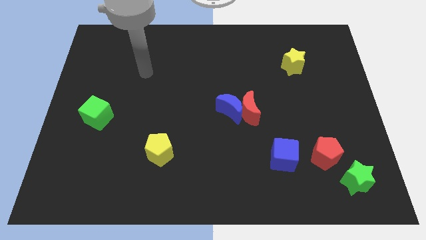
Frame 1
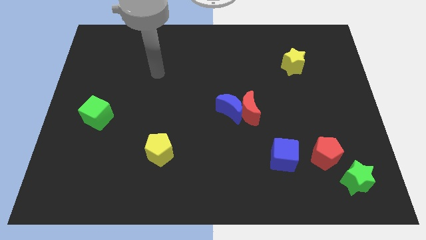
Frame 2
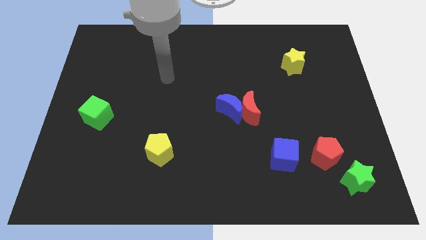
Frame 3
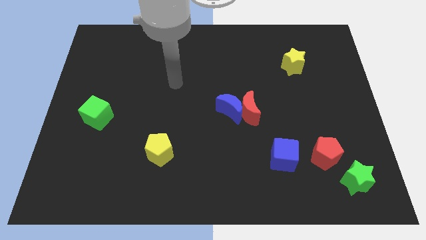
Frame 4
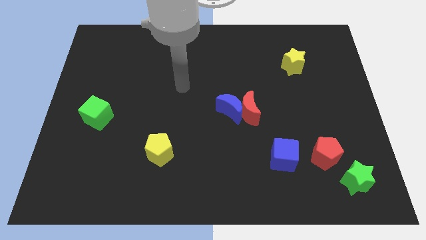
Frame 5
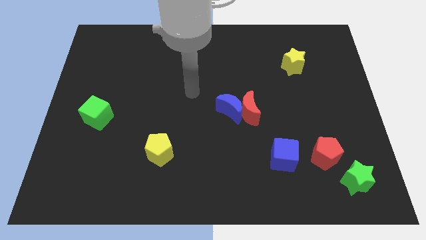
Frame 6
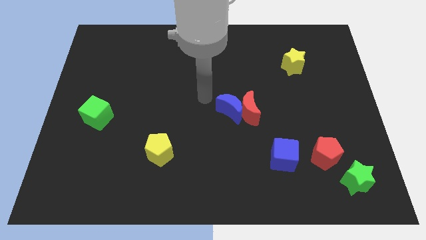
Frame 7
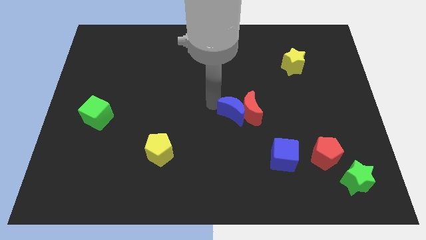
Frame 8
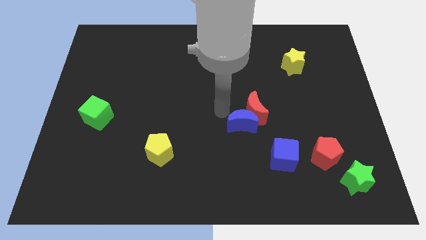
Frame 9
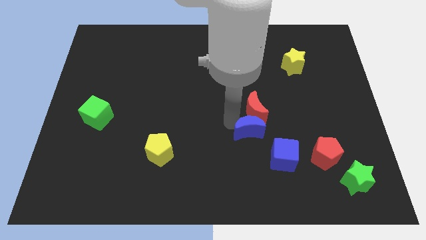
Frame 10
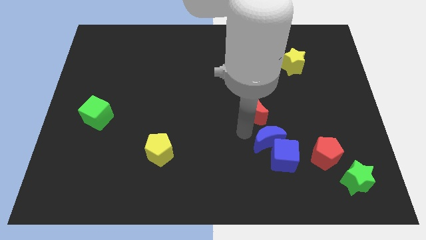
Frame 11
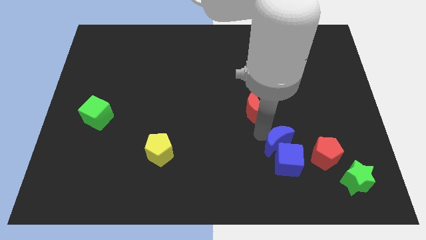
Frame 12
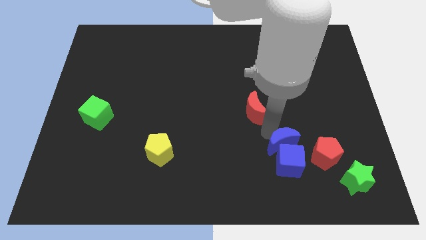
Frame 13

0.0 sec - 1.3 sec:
pull the red moon apart from the blue moon

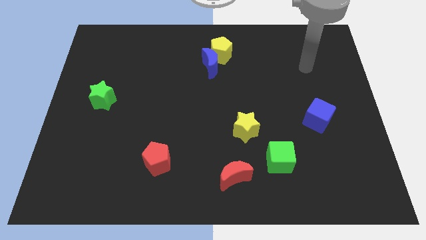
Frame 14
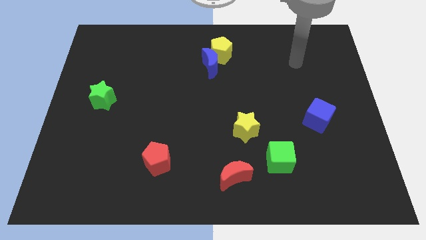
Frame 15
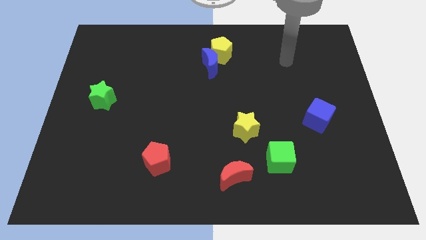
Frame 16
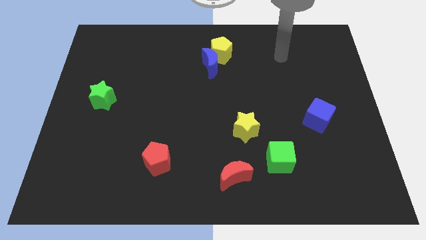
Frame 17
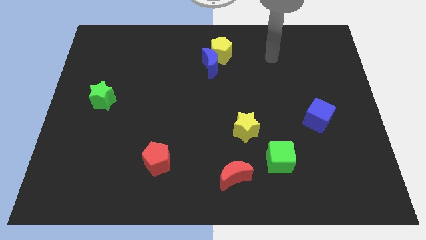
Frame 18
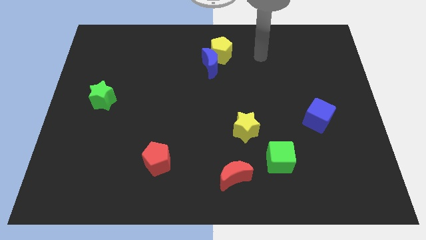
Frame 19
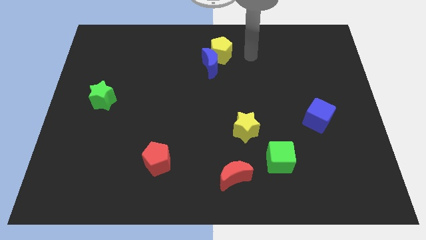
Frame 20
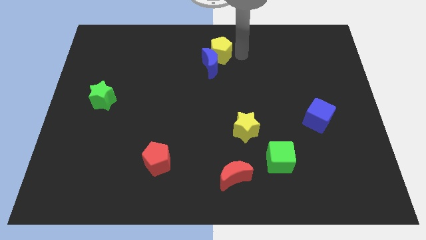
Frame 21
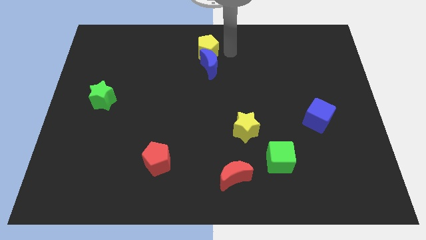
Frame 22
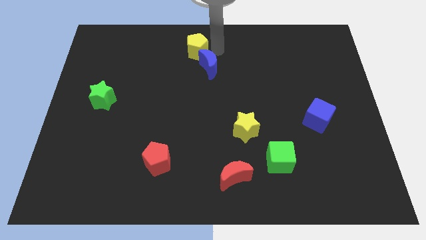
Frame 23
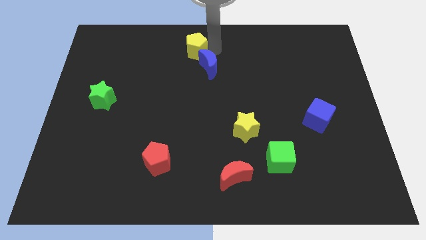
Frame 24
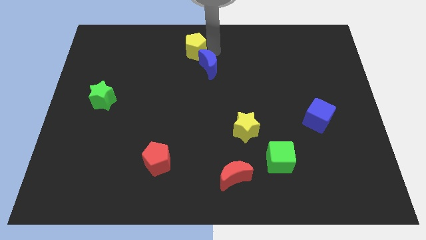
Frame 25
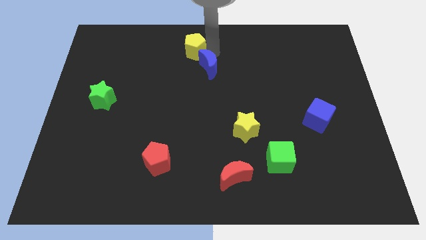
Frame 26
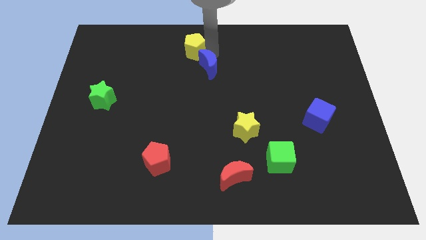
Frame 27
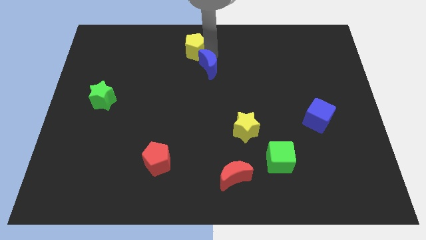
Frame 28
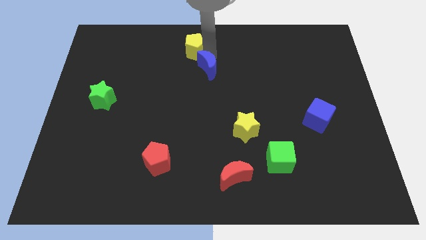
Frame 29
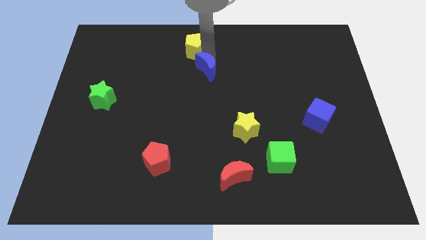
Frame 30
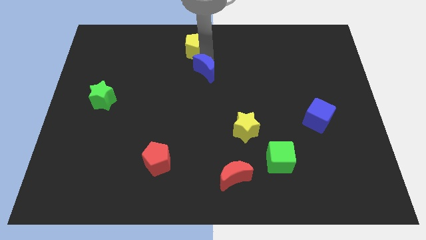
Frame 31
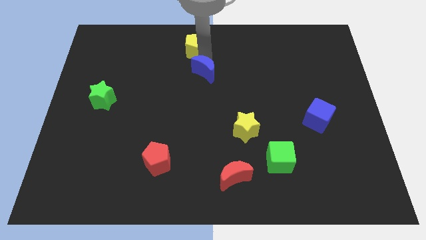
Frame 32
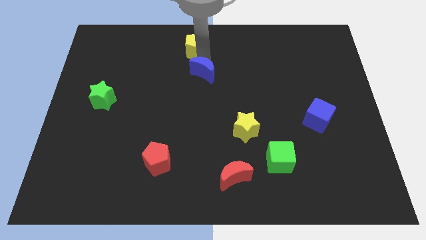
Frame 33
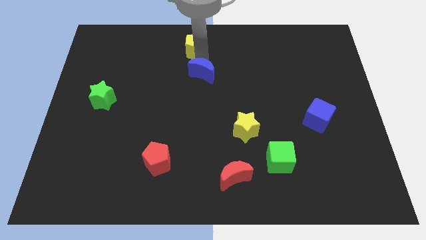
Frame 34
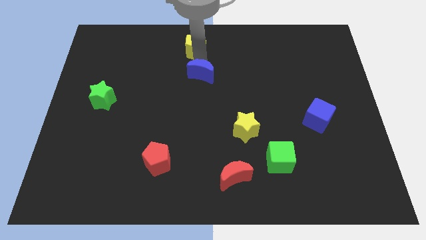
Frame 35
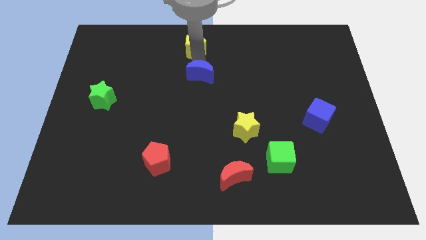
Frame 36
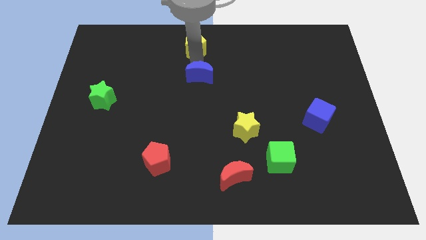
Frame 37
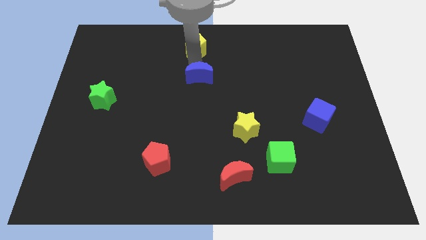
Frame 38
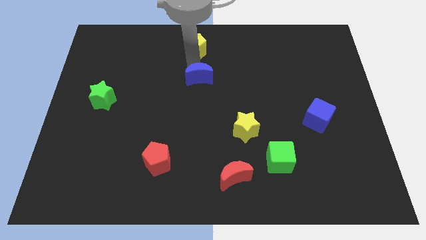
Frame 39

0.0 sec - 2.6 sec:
separate the blue moon from the yellow pentagon

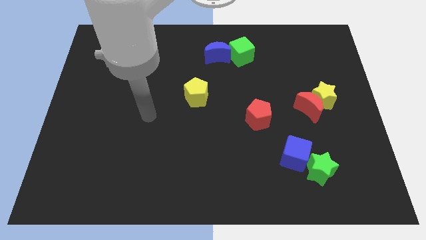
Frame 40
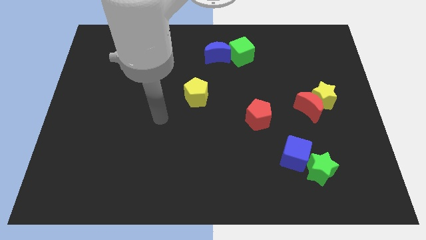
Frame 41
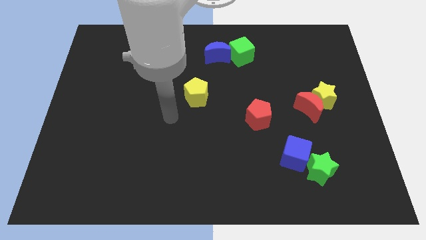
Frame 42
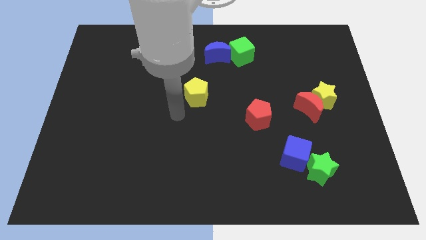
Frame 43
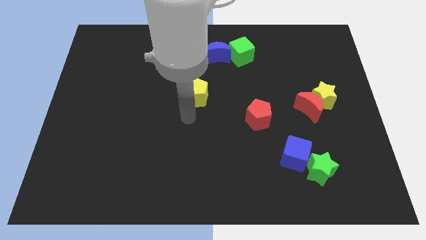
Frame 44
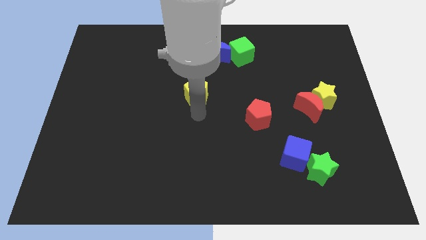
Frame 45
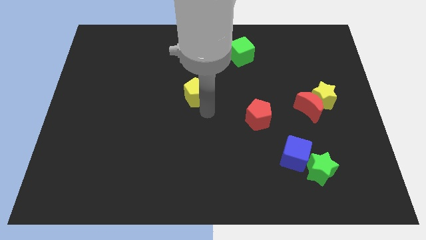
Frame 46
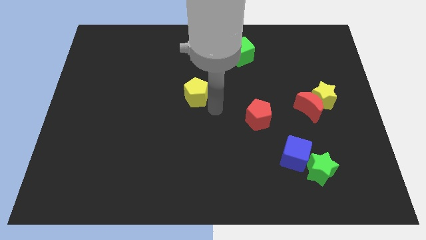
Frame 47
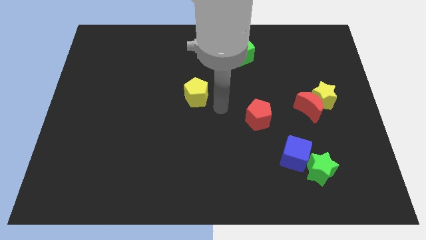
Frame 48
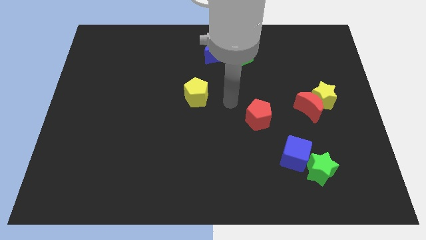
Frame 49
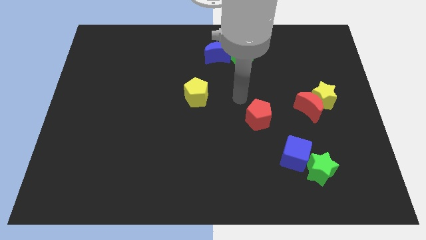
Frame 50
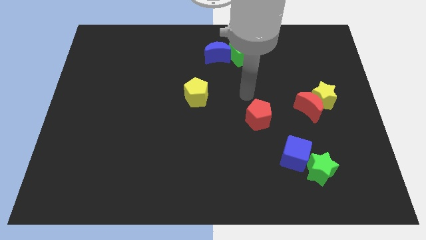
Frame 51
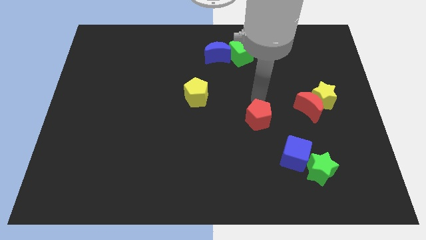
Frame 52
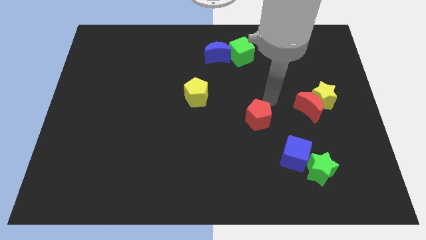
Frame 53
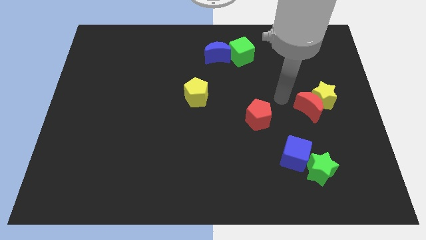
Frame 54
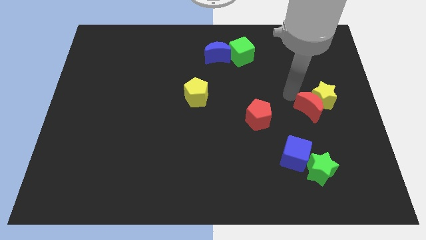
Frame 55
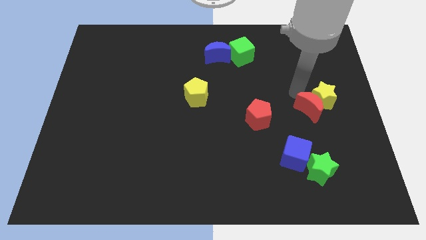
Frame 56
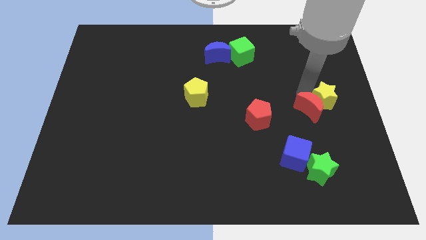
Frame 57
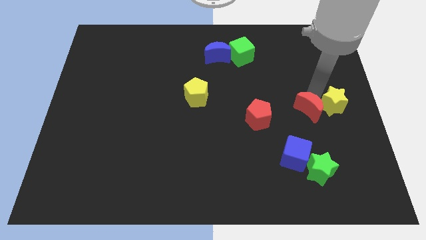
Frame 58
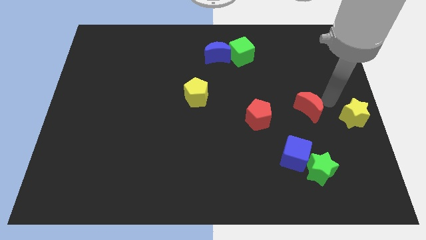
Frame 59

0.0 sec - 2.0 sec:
separate the red moon from the yellow star

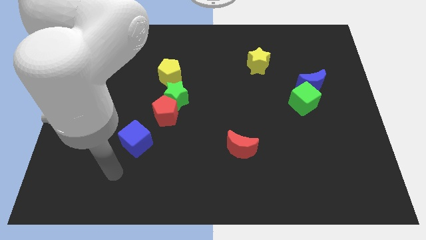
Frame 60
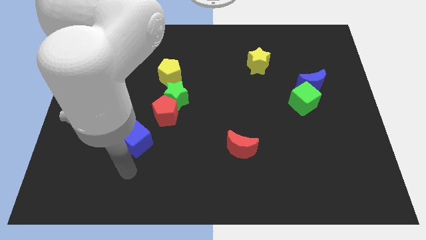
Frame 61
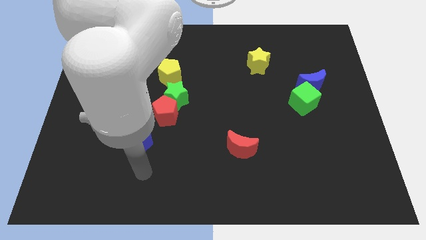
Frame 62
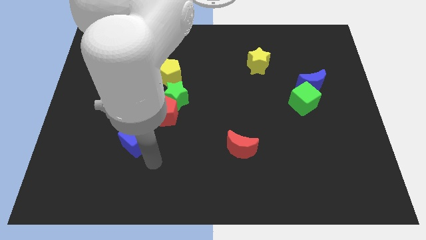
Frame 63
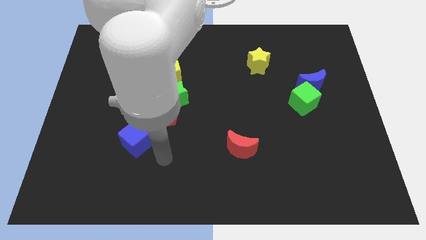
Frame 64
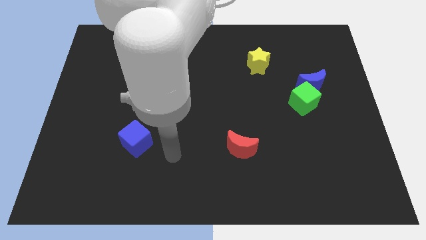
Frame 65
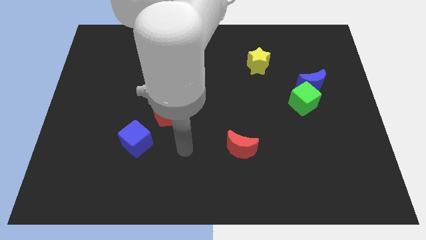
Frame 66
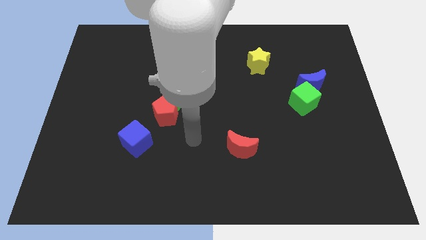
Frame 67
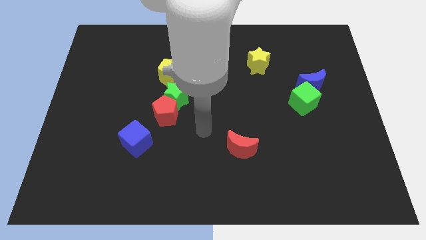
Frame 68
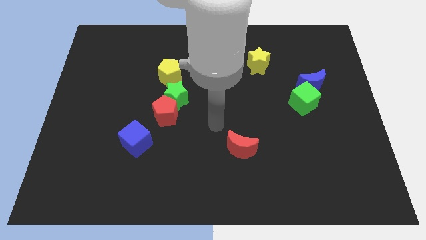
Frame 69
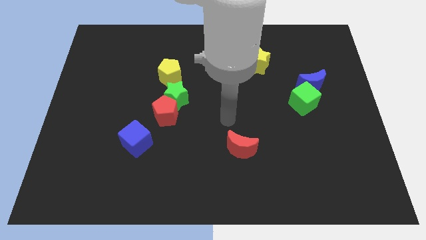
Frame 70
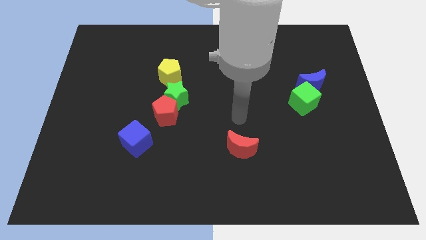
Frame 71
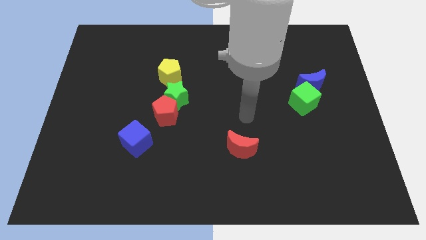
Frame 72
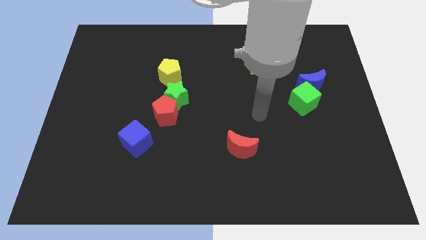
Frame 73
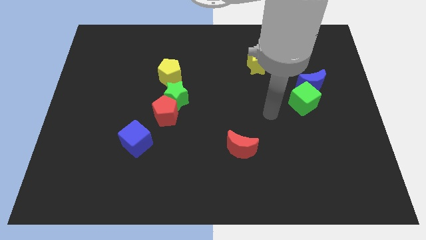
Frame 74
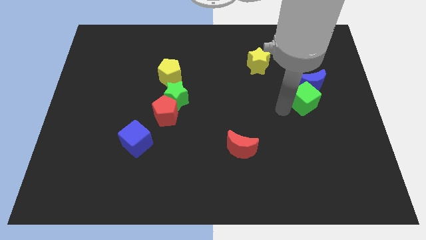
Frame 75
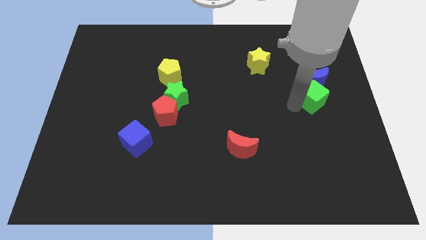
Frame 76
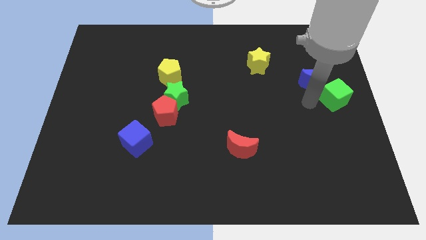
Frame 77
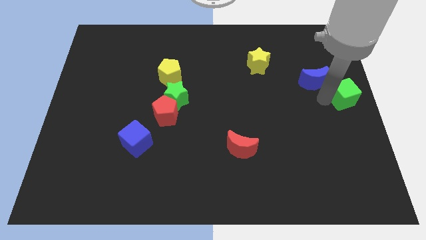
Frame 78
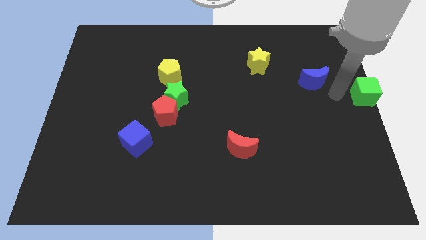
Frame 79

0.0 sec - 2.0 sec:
separate the blue moon from the green cube

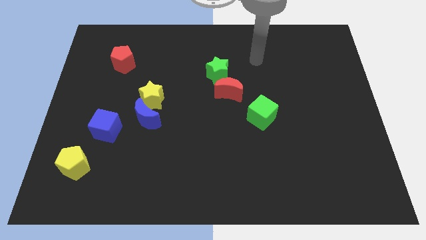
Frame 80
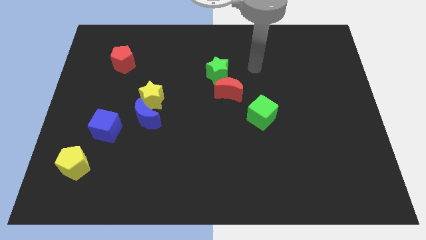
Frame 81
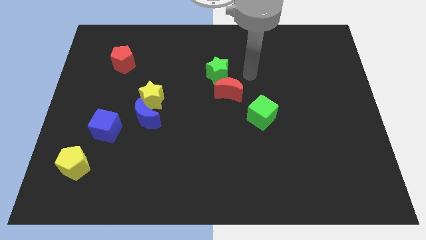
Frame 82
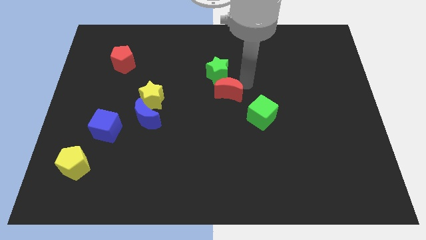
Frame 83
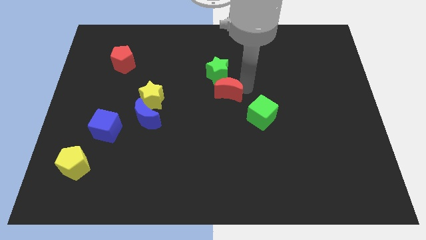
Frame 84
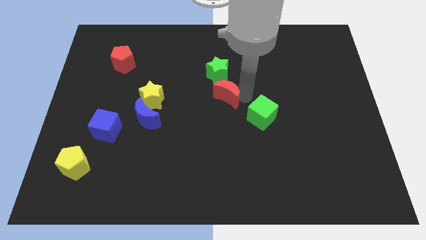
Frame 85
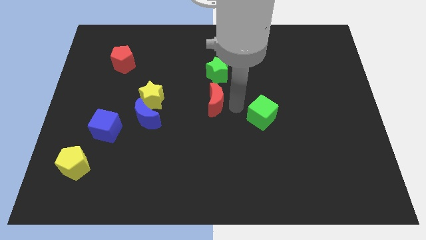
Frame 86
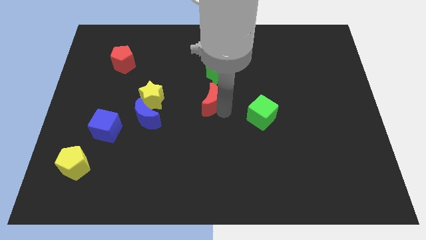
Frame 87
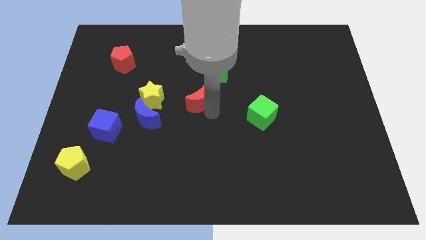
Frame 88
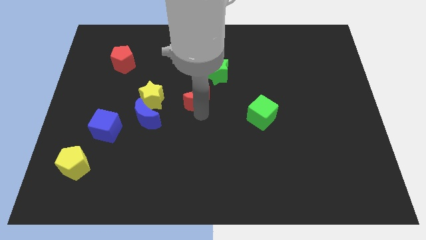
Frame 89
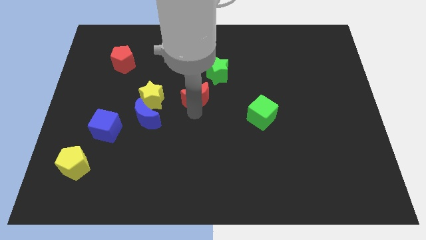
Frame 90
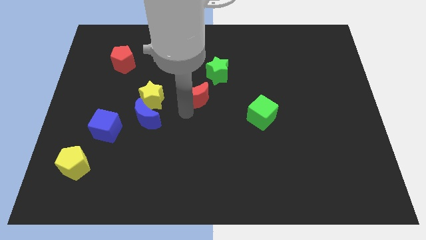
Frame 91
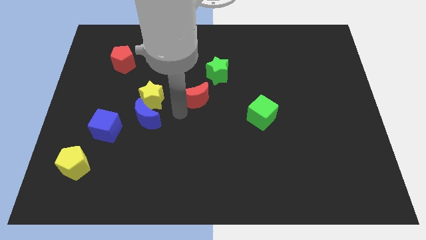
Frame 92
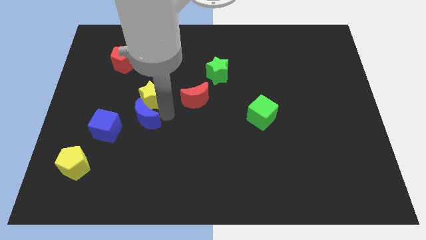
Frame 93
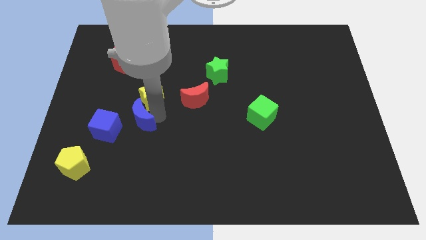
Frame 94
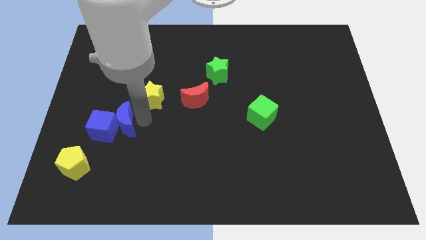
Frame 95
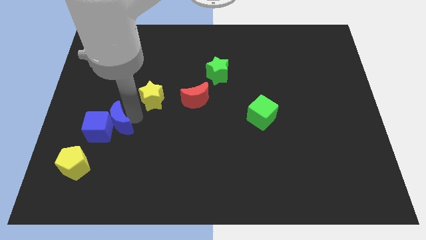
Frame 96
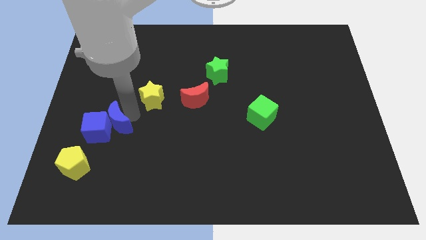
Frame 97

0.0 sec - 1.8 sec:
move the yellow star away from the blue moon
